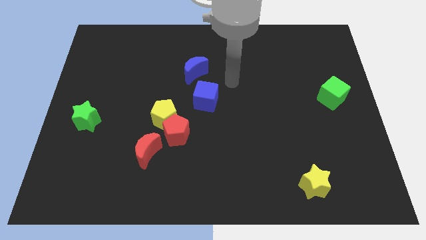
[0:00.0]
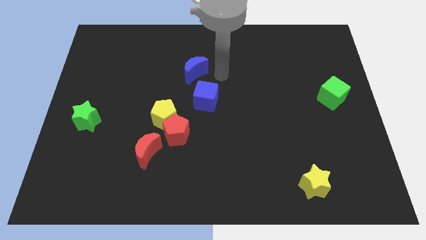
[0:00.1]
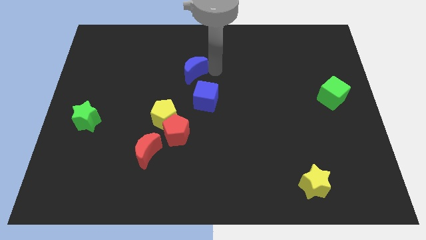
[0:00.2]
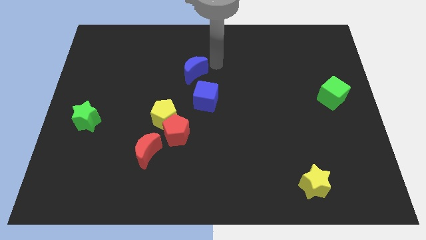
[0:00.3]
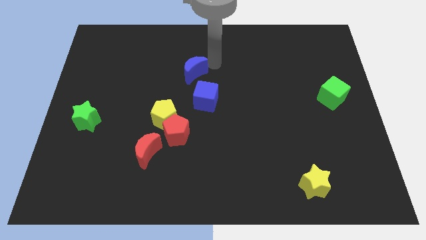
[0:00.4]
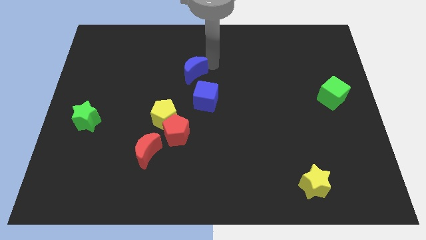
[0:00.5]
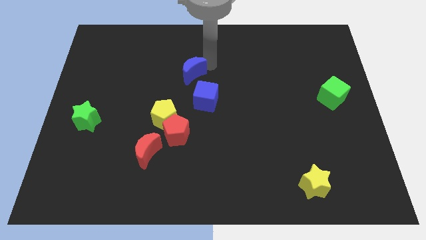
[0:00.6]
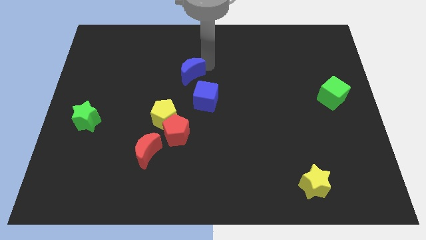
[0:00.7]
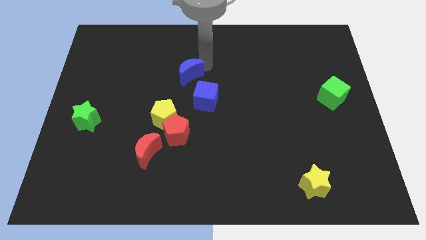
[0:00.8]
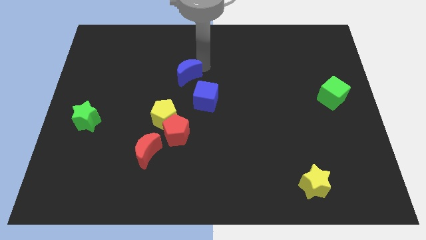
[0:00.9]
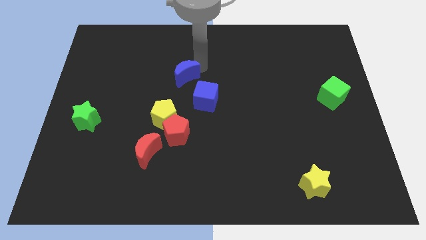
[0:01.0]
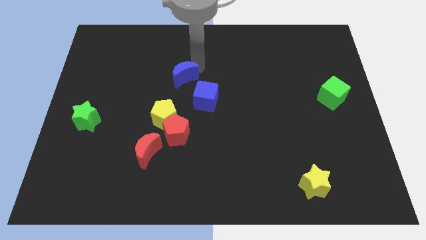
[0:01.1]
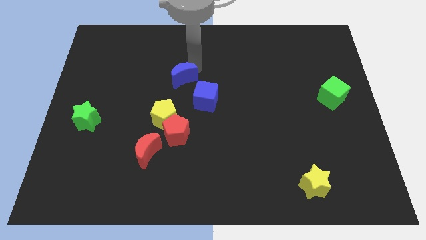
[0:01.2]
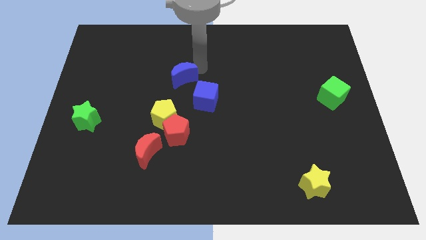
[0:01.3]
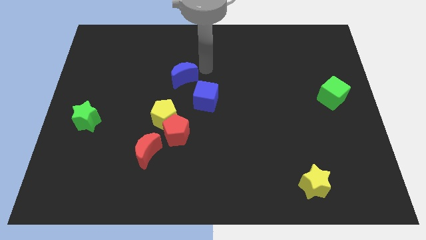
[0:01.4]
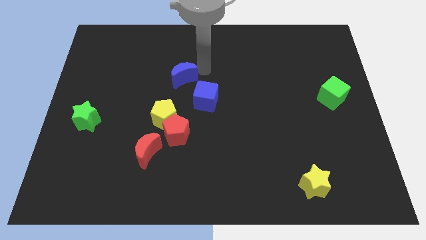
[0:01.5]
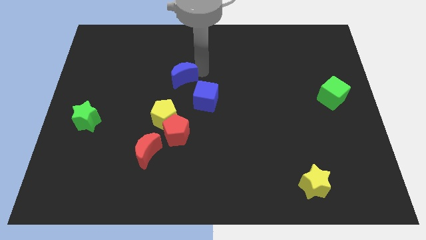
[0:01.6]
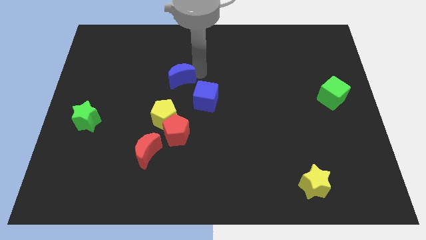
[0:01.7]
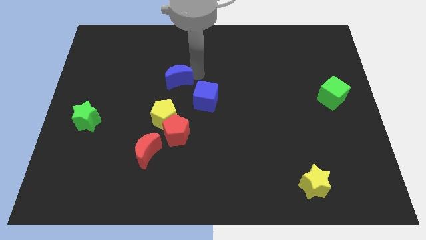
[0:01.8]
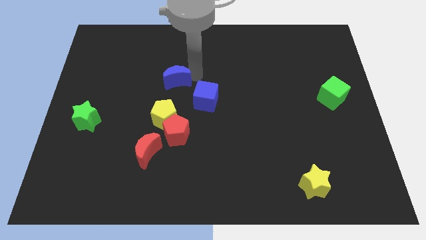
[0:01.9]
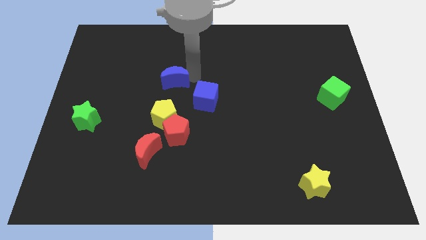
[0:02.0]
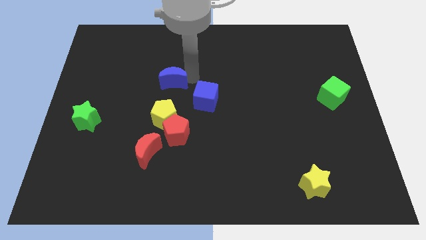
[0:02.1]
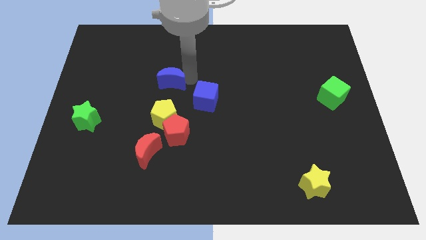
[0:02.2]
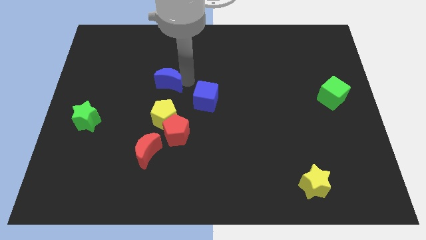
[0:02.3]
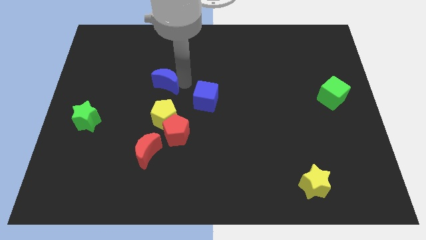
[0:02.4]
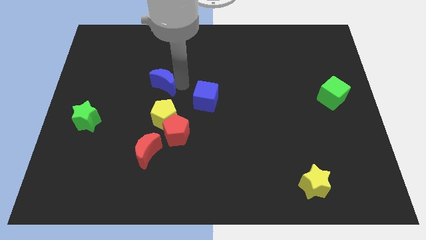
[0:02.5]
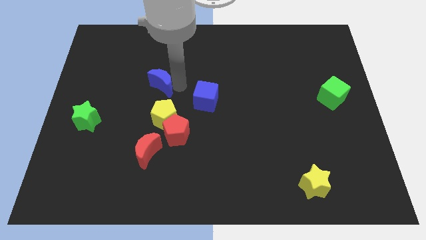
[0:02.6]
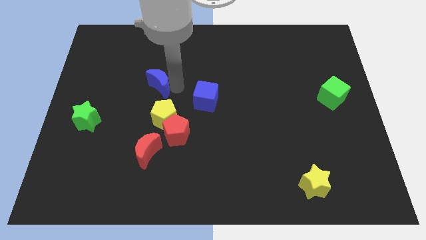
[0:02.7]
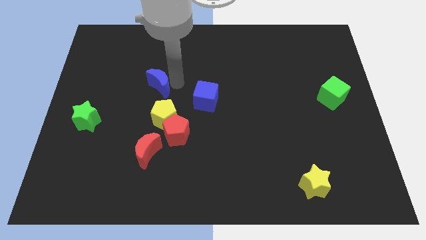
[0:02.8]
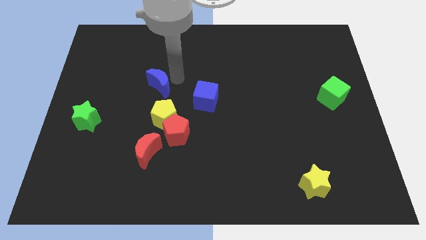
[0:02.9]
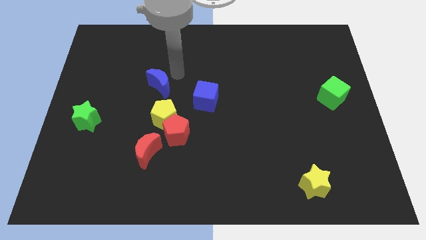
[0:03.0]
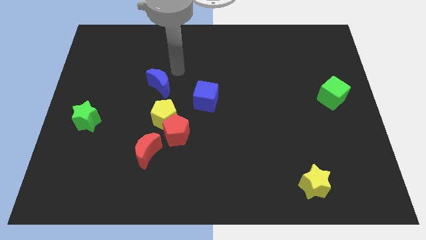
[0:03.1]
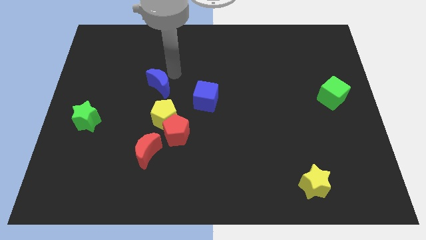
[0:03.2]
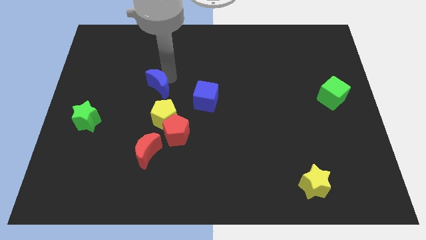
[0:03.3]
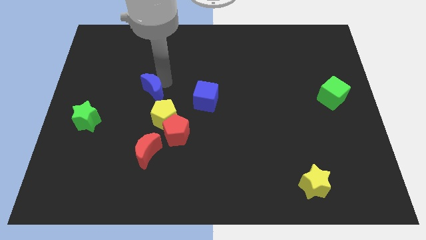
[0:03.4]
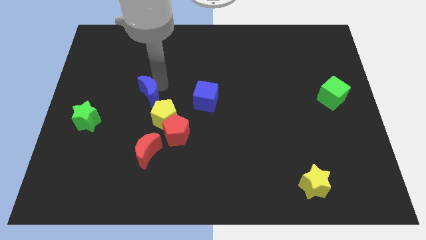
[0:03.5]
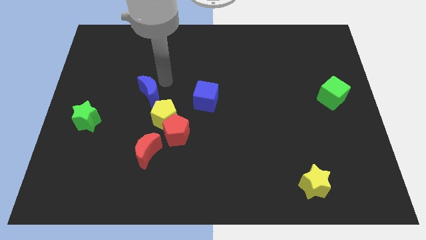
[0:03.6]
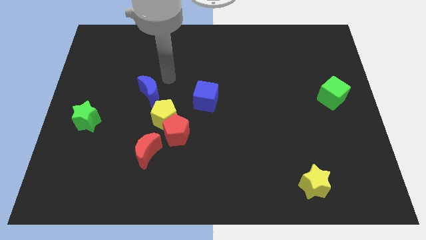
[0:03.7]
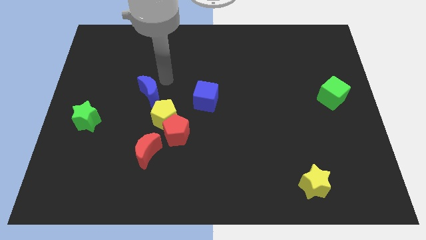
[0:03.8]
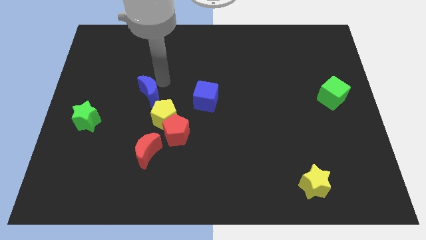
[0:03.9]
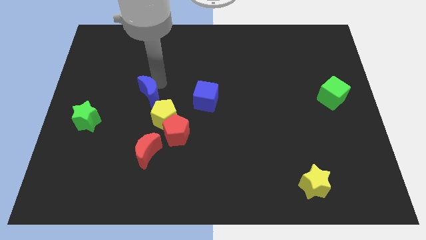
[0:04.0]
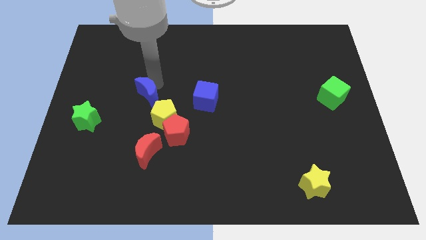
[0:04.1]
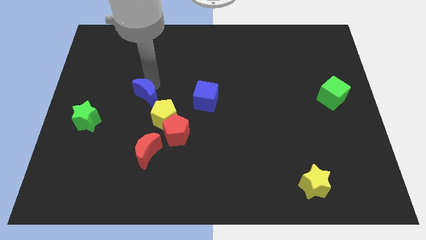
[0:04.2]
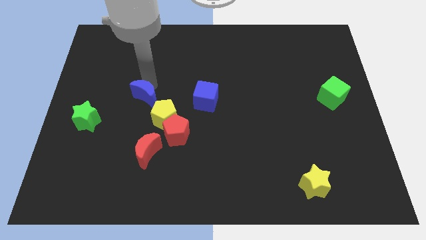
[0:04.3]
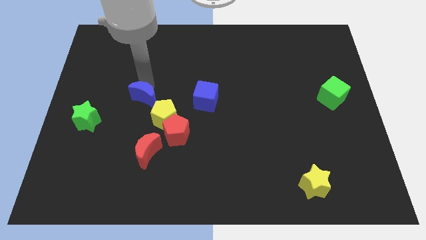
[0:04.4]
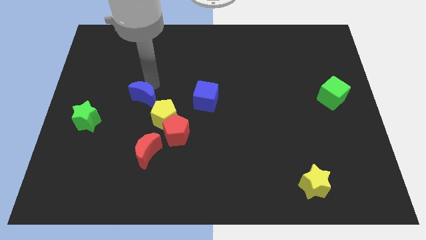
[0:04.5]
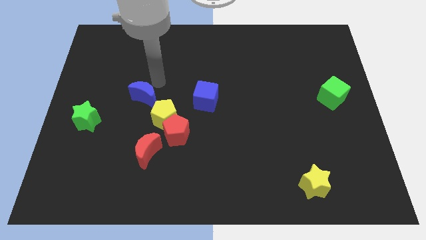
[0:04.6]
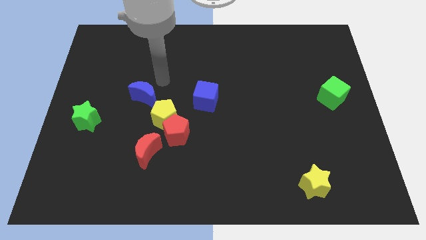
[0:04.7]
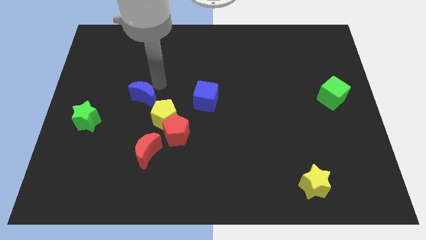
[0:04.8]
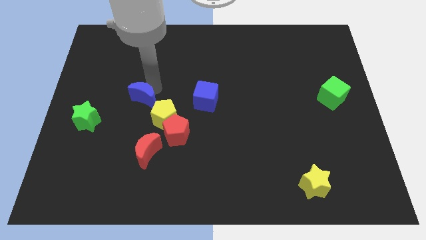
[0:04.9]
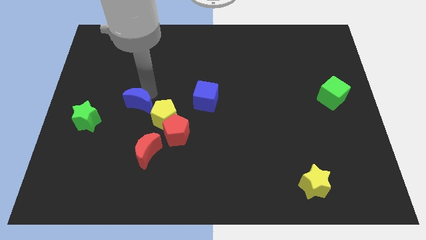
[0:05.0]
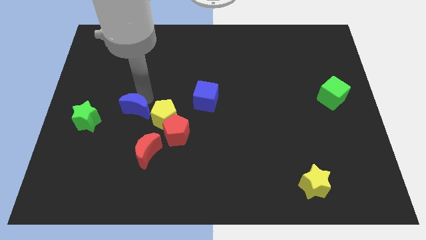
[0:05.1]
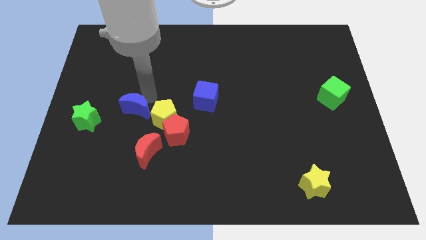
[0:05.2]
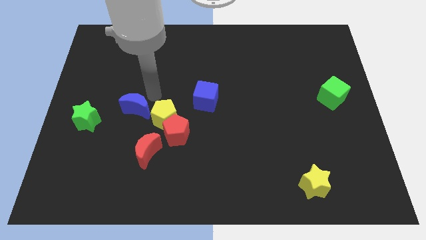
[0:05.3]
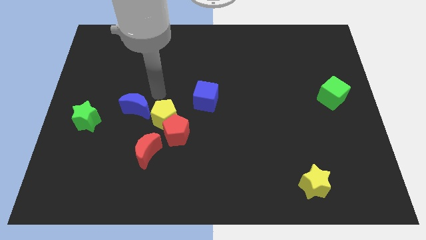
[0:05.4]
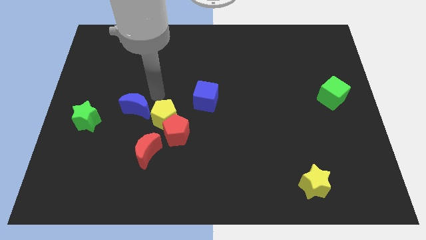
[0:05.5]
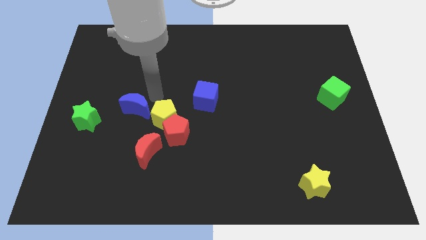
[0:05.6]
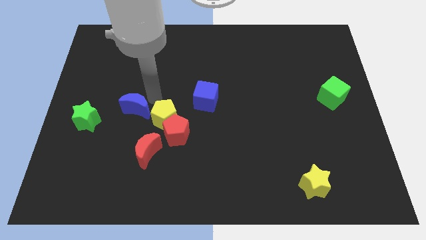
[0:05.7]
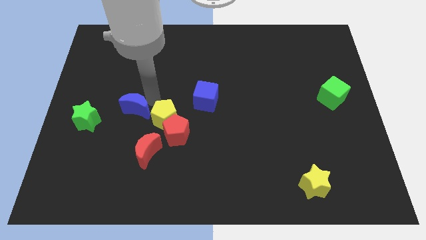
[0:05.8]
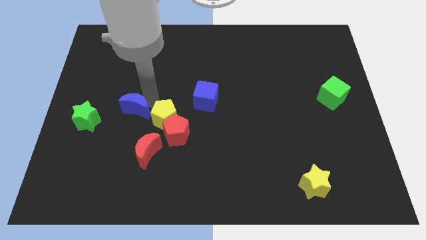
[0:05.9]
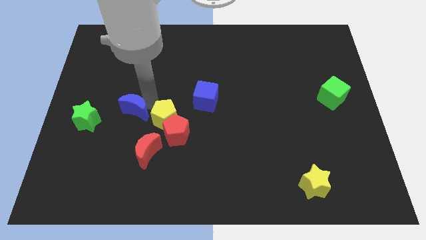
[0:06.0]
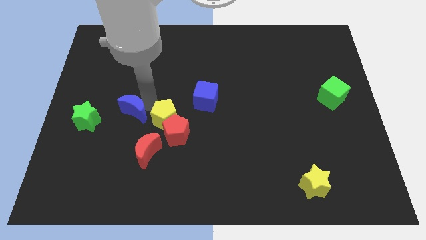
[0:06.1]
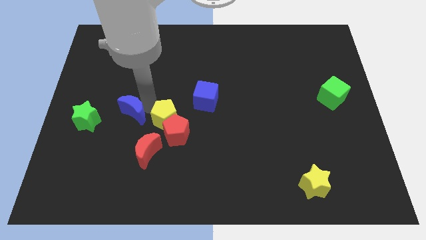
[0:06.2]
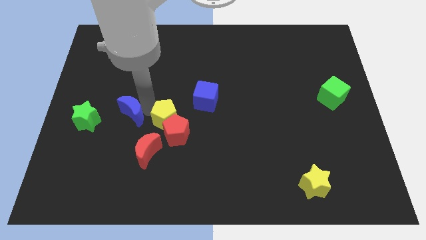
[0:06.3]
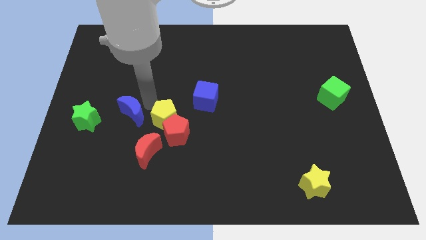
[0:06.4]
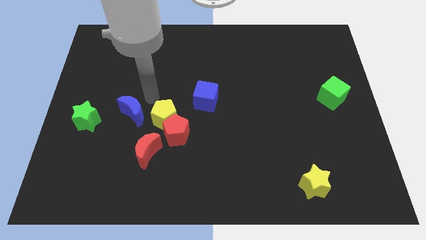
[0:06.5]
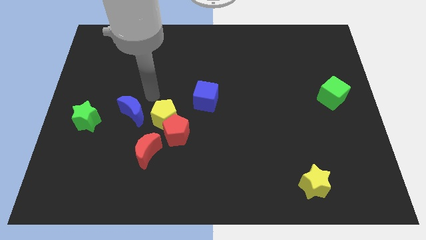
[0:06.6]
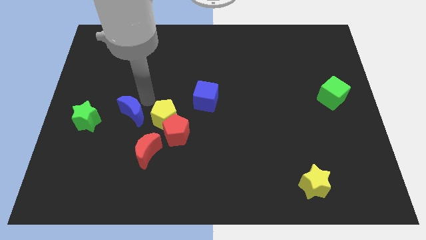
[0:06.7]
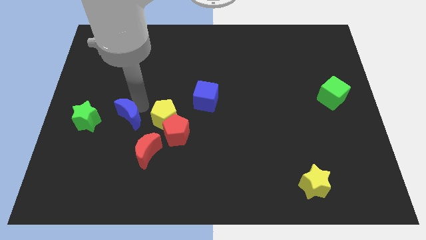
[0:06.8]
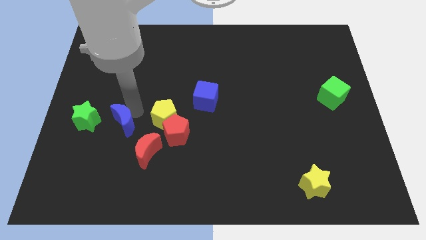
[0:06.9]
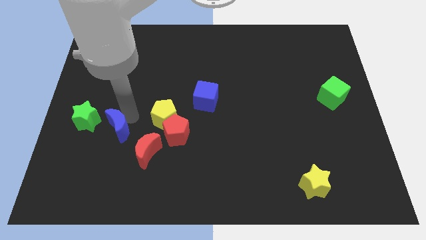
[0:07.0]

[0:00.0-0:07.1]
push the blue moon diagonally down and to the right of the green star
